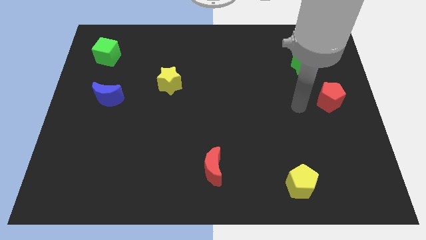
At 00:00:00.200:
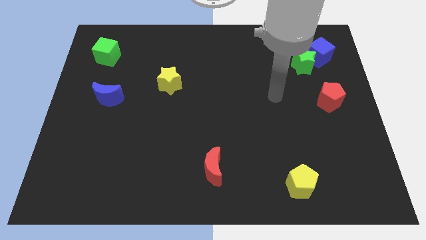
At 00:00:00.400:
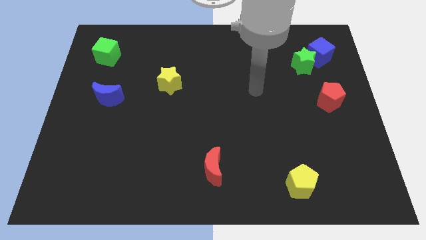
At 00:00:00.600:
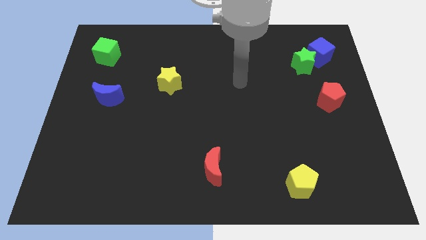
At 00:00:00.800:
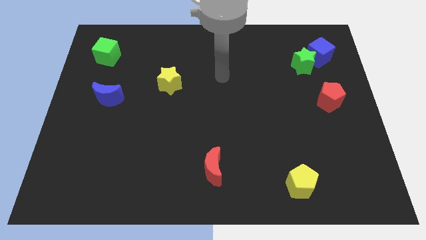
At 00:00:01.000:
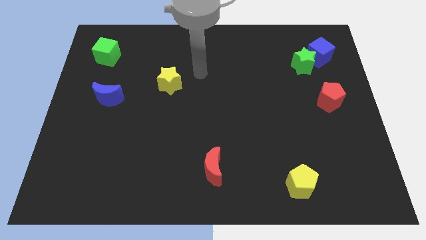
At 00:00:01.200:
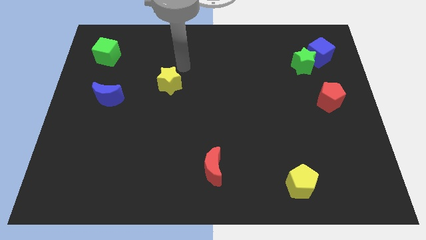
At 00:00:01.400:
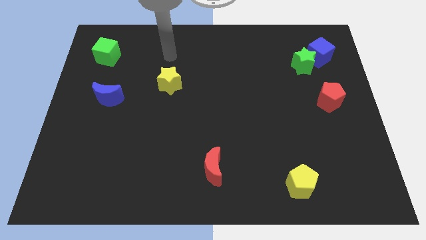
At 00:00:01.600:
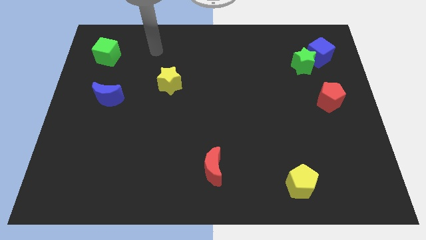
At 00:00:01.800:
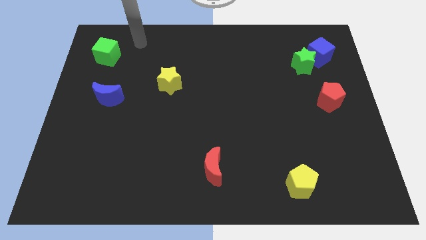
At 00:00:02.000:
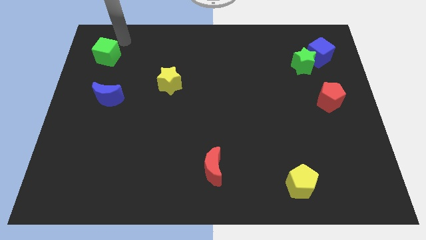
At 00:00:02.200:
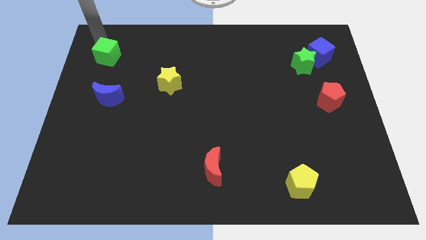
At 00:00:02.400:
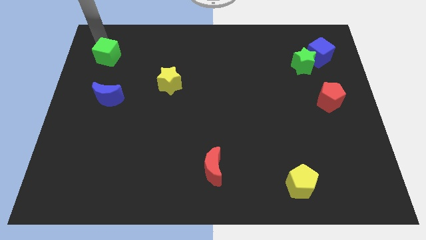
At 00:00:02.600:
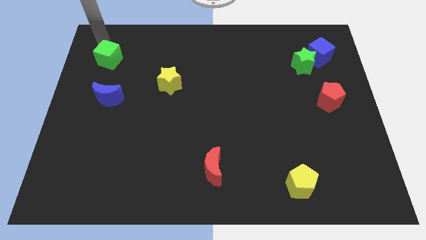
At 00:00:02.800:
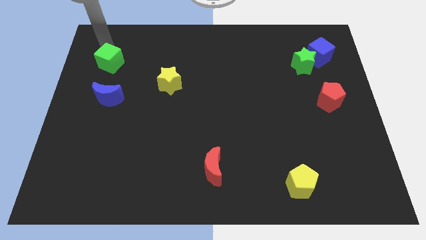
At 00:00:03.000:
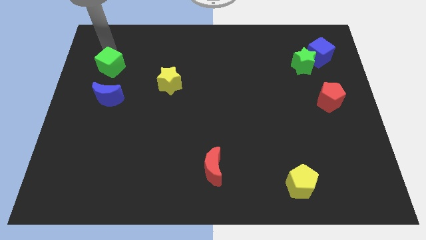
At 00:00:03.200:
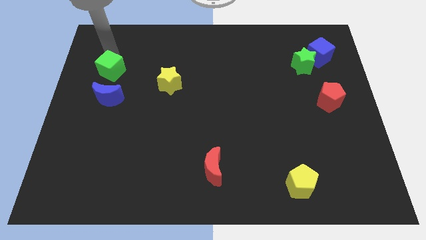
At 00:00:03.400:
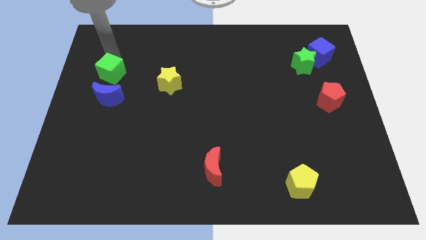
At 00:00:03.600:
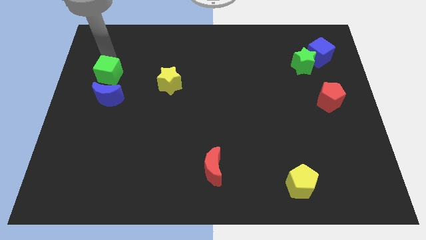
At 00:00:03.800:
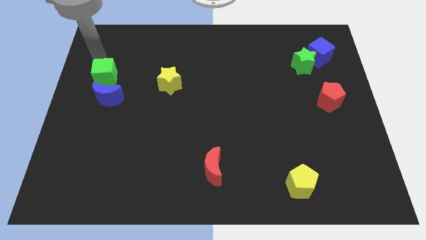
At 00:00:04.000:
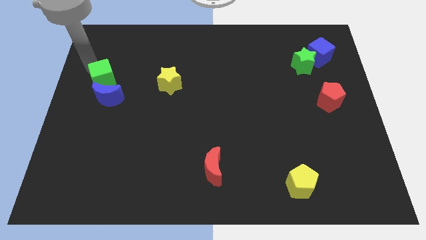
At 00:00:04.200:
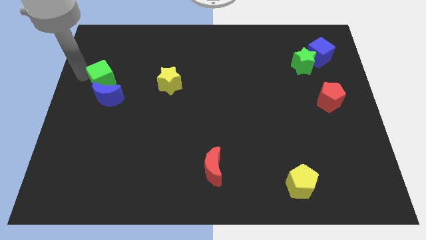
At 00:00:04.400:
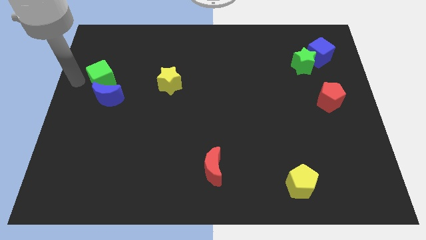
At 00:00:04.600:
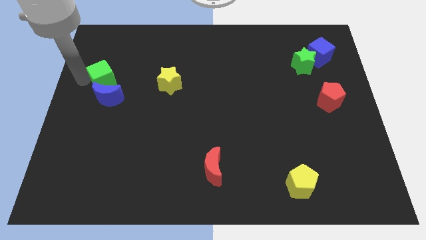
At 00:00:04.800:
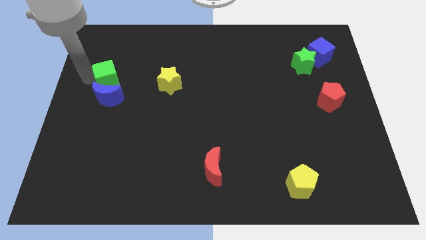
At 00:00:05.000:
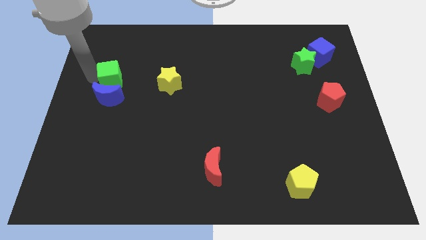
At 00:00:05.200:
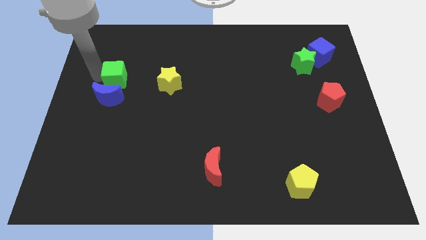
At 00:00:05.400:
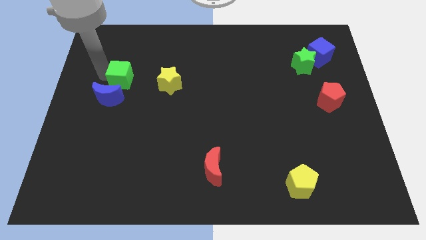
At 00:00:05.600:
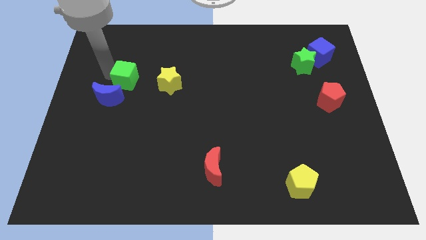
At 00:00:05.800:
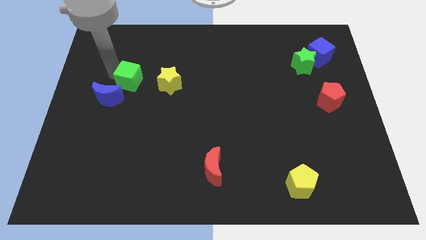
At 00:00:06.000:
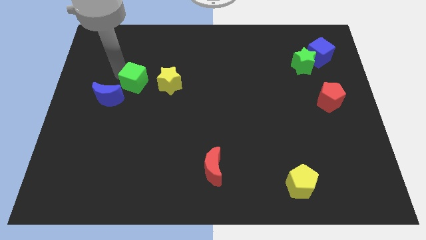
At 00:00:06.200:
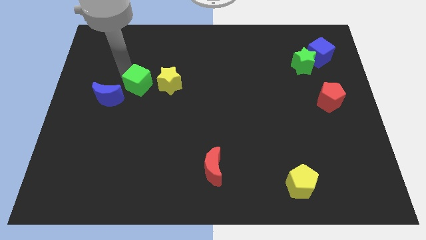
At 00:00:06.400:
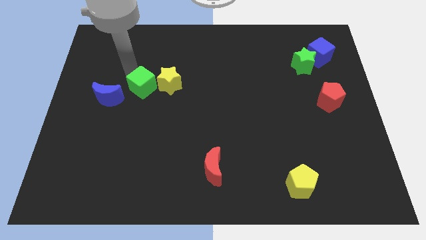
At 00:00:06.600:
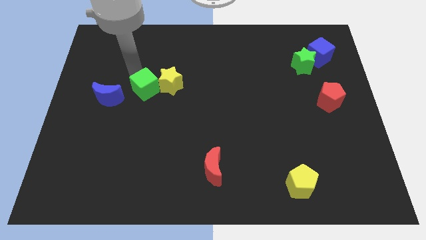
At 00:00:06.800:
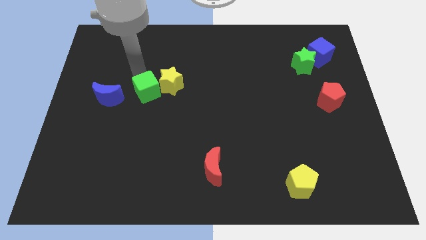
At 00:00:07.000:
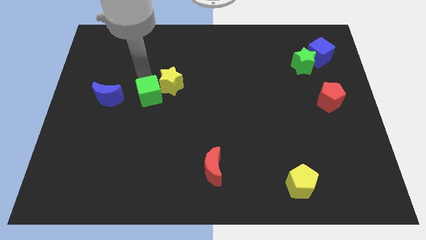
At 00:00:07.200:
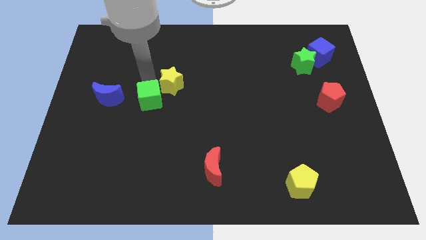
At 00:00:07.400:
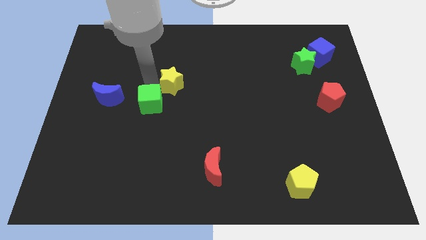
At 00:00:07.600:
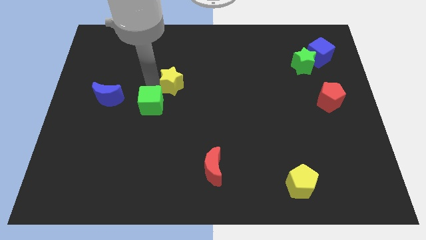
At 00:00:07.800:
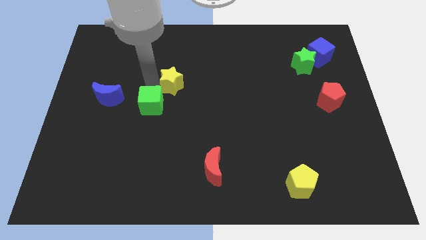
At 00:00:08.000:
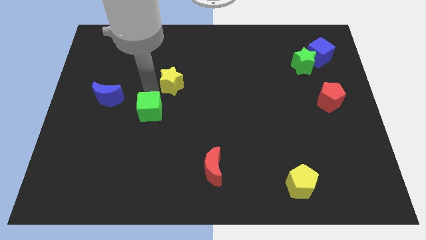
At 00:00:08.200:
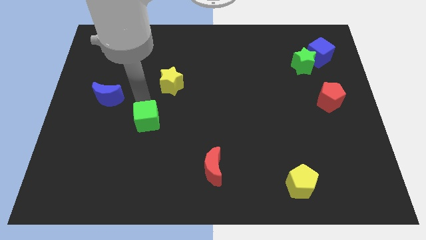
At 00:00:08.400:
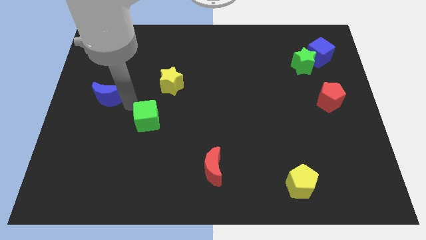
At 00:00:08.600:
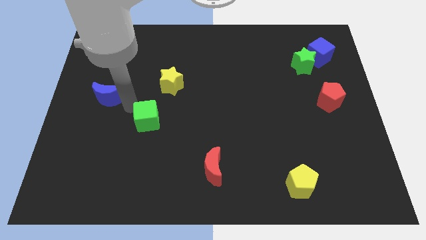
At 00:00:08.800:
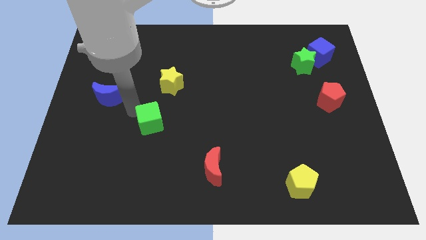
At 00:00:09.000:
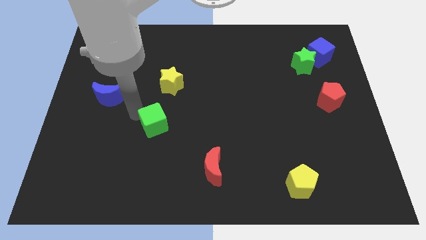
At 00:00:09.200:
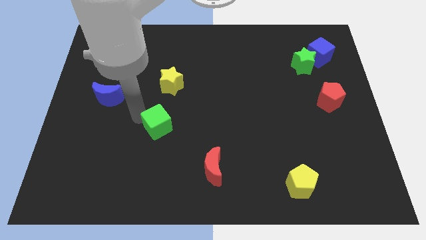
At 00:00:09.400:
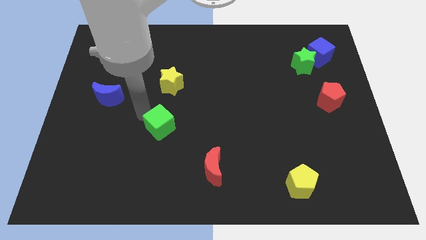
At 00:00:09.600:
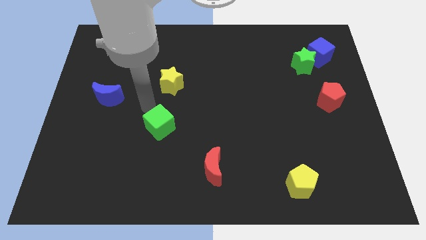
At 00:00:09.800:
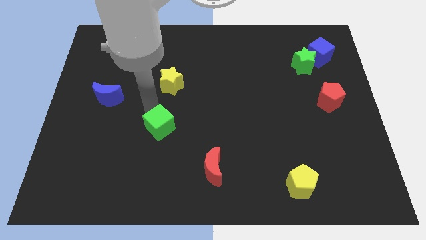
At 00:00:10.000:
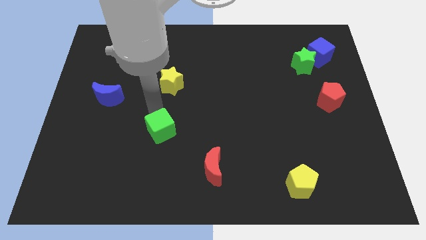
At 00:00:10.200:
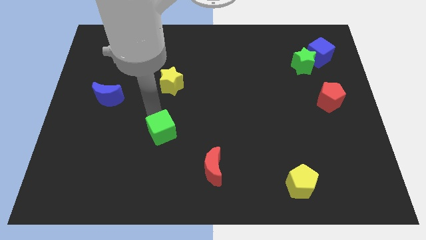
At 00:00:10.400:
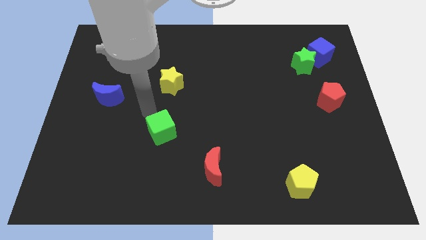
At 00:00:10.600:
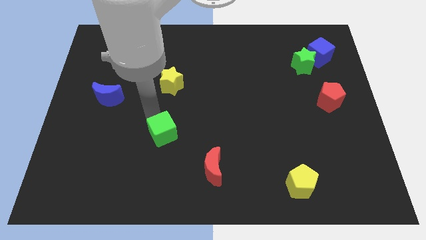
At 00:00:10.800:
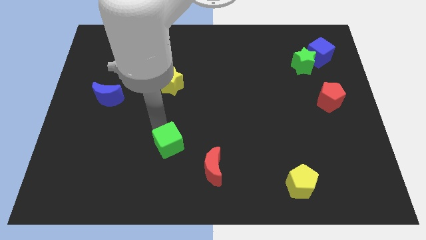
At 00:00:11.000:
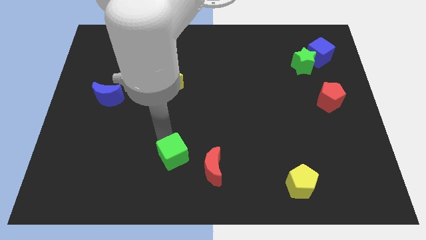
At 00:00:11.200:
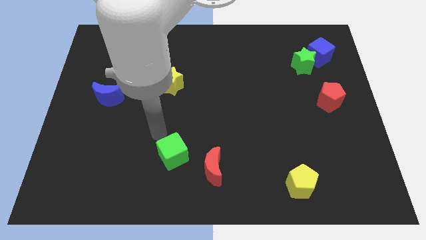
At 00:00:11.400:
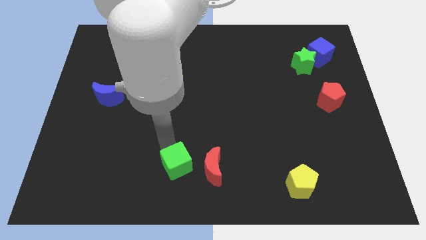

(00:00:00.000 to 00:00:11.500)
push the green cube to the bottom
